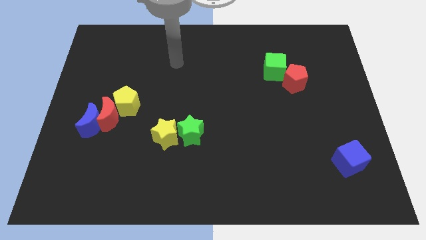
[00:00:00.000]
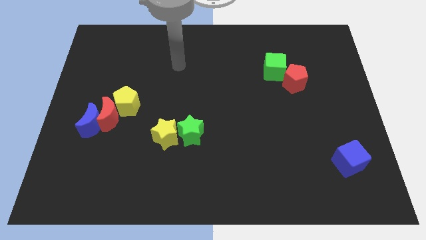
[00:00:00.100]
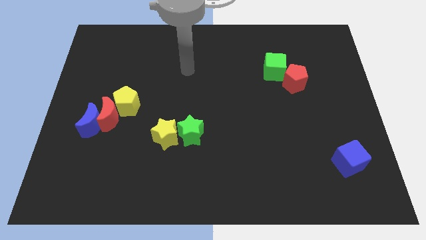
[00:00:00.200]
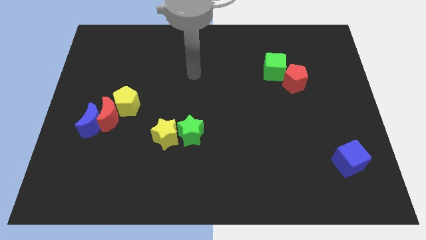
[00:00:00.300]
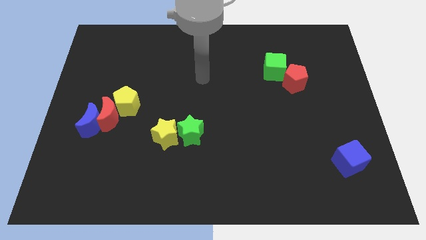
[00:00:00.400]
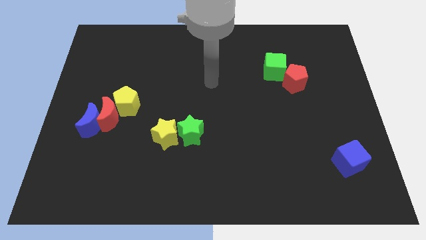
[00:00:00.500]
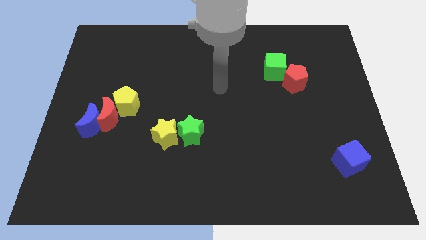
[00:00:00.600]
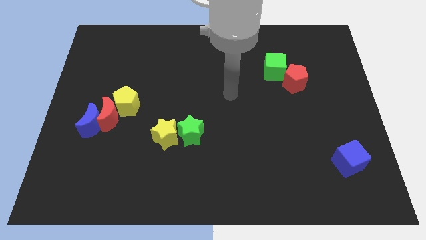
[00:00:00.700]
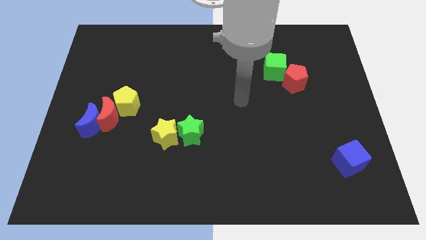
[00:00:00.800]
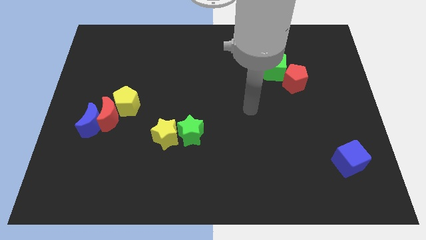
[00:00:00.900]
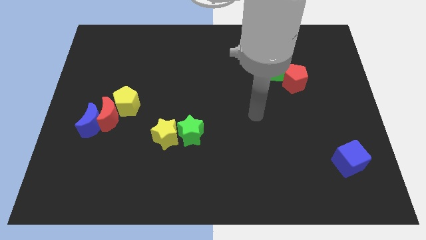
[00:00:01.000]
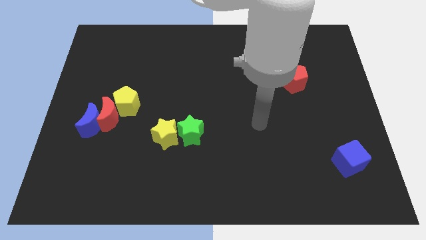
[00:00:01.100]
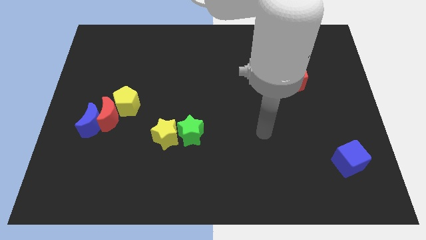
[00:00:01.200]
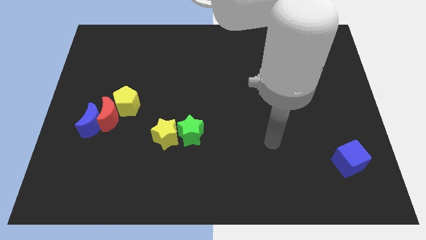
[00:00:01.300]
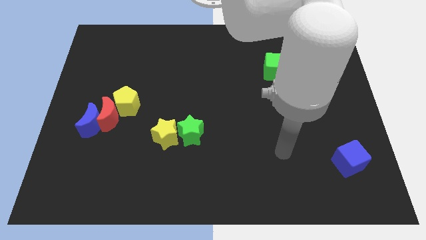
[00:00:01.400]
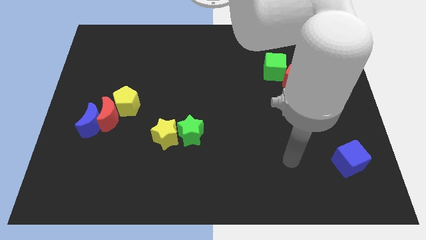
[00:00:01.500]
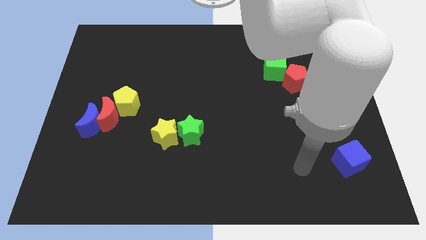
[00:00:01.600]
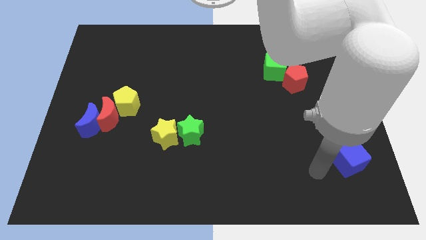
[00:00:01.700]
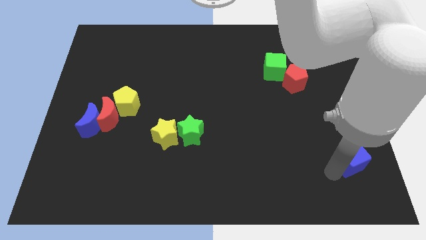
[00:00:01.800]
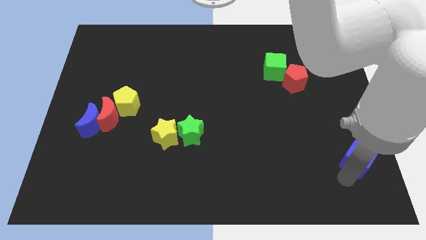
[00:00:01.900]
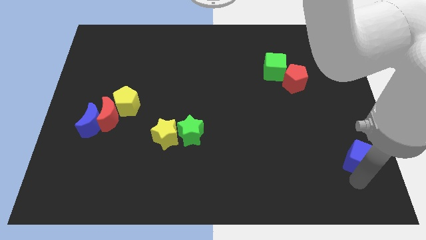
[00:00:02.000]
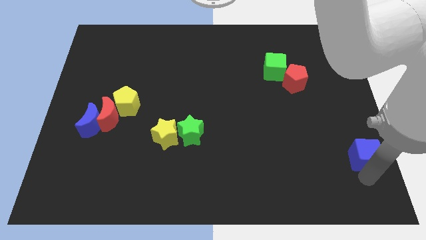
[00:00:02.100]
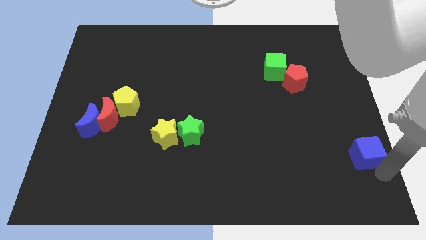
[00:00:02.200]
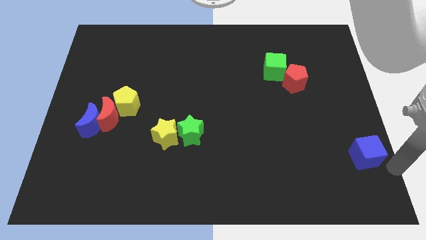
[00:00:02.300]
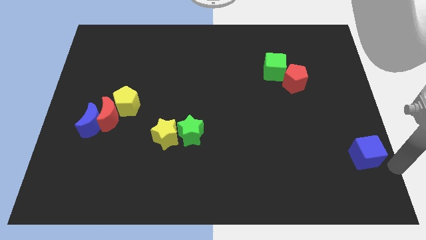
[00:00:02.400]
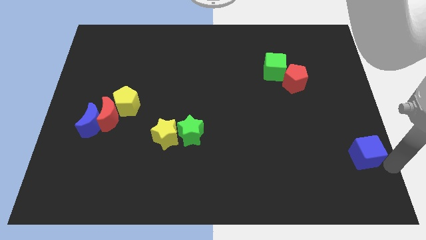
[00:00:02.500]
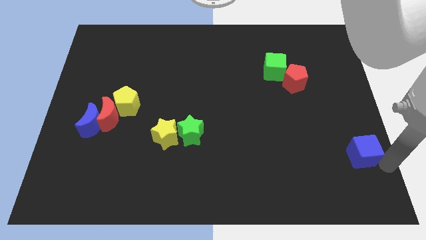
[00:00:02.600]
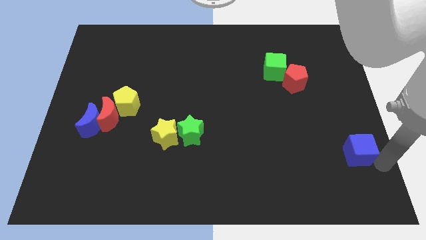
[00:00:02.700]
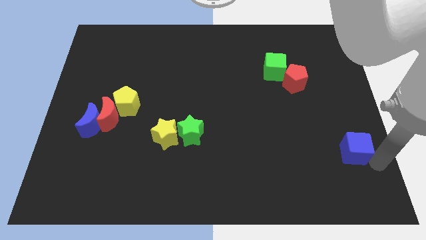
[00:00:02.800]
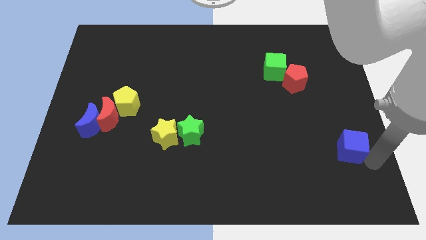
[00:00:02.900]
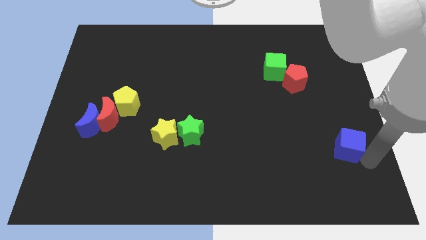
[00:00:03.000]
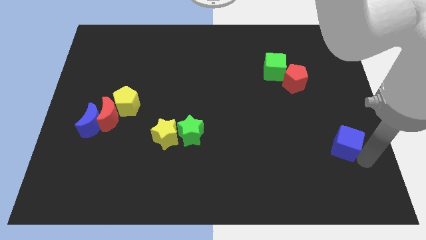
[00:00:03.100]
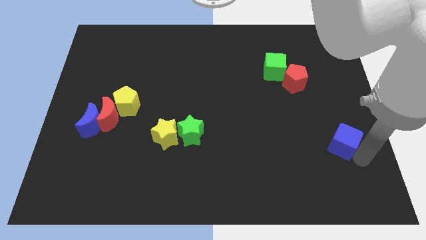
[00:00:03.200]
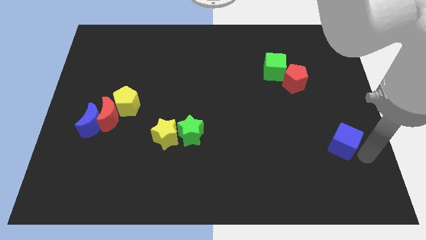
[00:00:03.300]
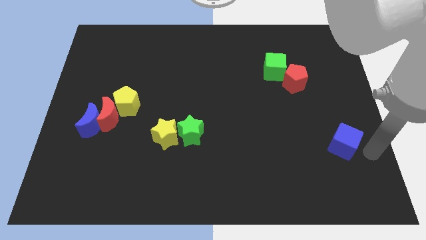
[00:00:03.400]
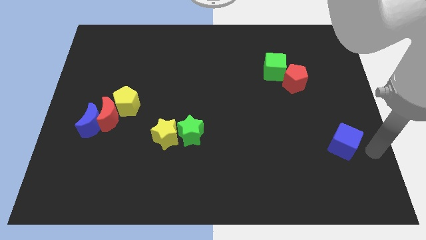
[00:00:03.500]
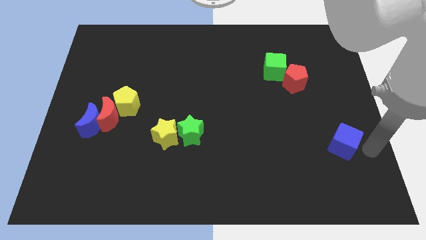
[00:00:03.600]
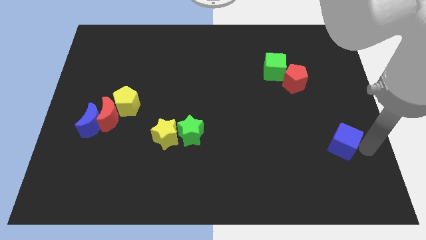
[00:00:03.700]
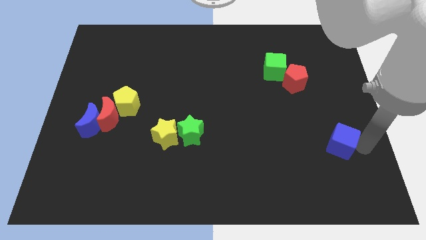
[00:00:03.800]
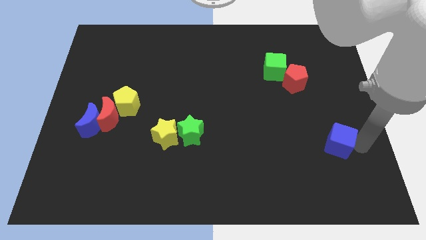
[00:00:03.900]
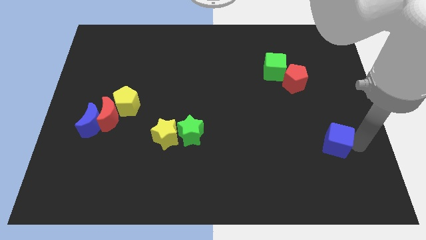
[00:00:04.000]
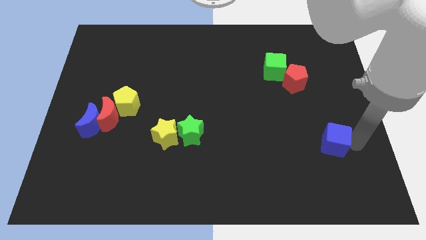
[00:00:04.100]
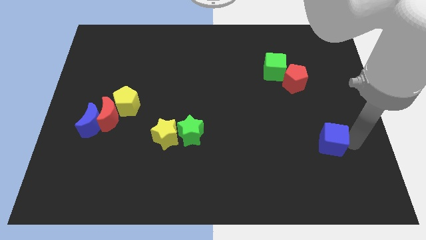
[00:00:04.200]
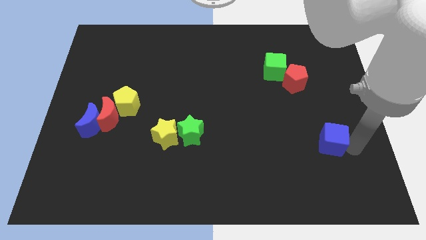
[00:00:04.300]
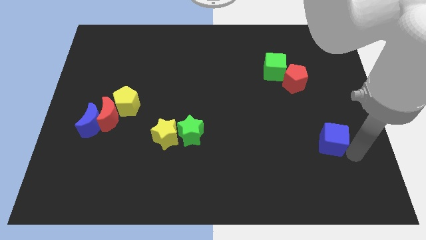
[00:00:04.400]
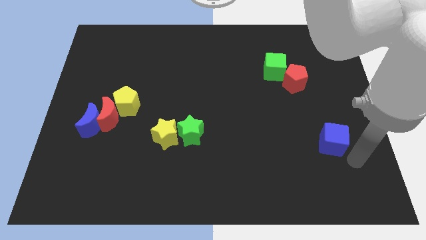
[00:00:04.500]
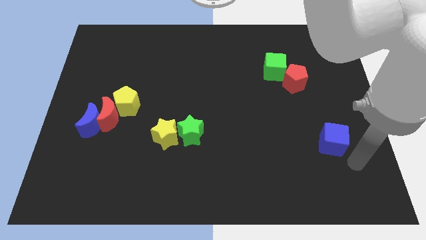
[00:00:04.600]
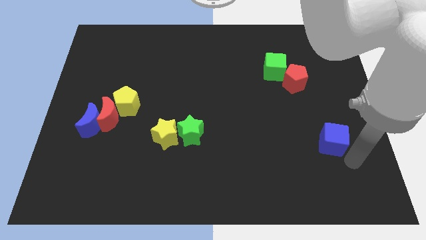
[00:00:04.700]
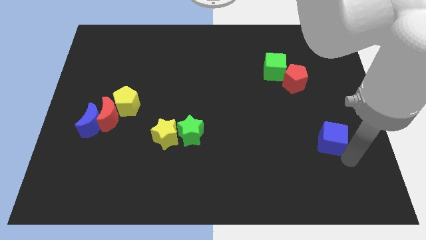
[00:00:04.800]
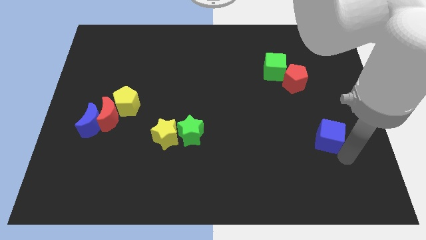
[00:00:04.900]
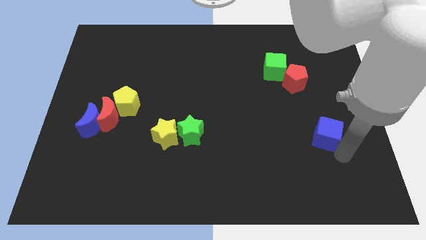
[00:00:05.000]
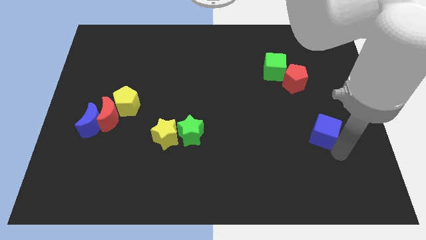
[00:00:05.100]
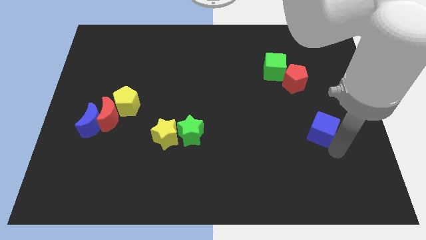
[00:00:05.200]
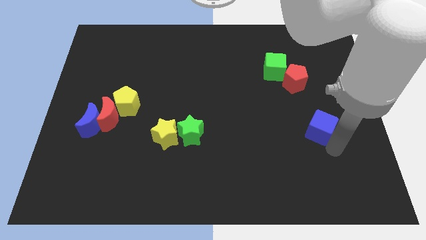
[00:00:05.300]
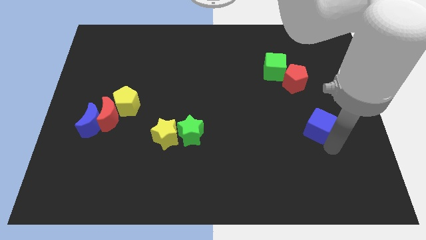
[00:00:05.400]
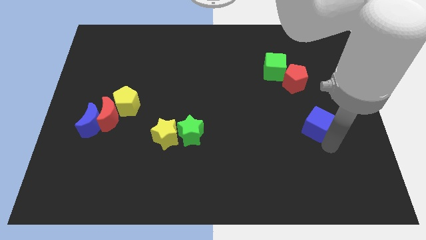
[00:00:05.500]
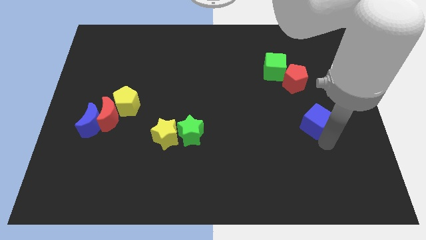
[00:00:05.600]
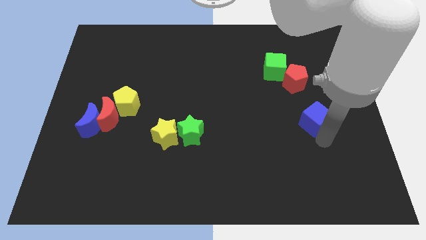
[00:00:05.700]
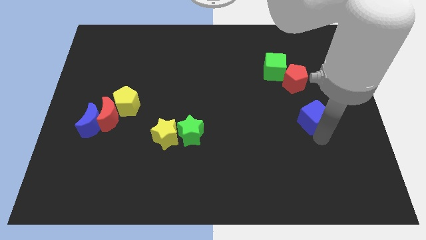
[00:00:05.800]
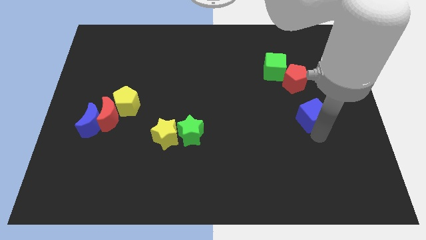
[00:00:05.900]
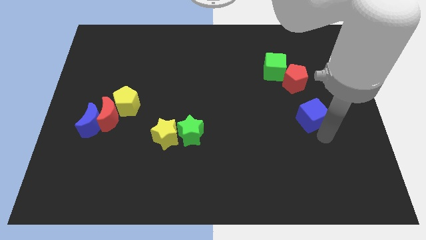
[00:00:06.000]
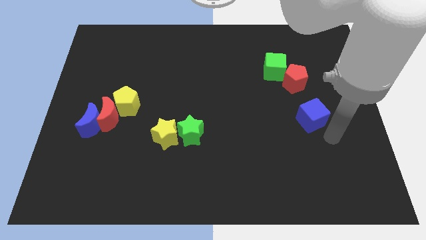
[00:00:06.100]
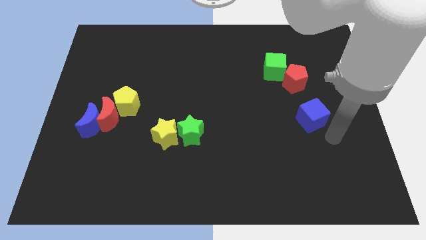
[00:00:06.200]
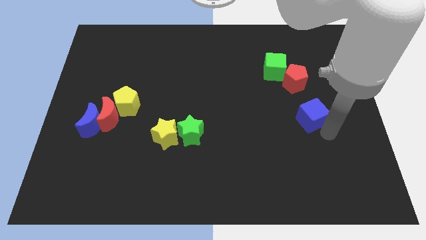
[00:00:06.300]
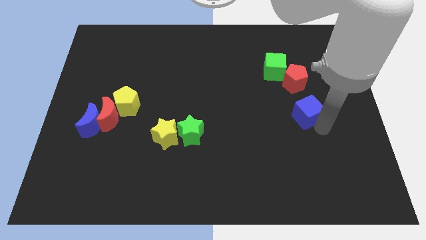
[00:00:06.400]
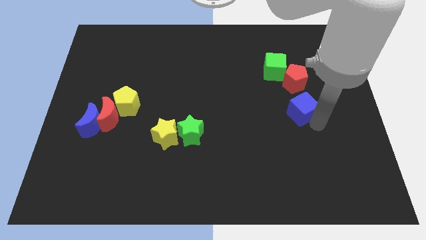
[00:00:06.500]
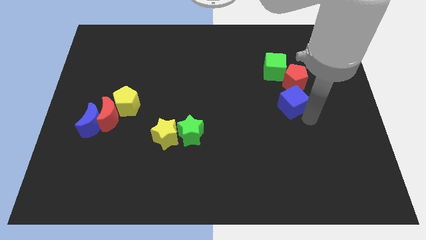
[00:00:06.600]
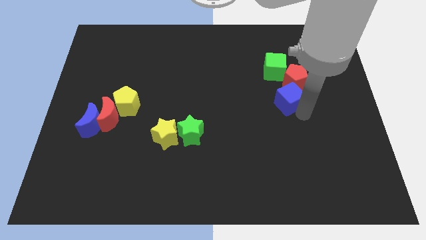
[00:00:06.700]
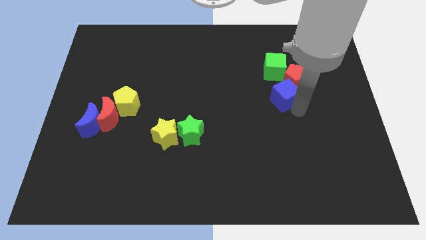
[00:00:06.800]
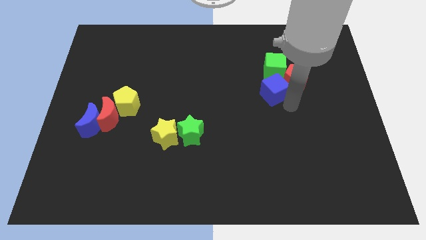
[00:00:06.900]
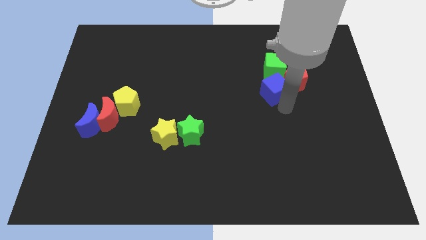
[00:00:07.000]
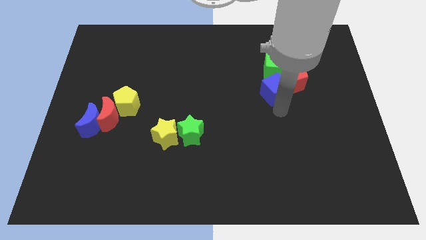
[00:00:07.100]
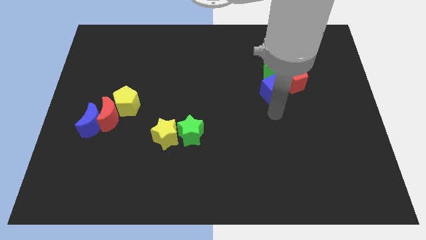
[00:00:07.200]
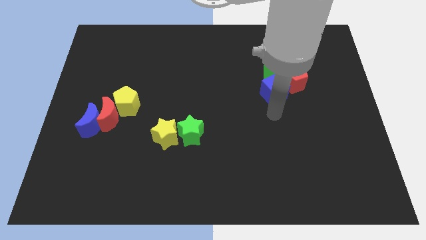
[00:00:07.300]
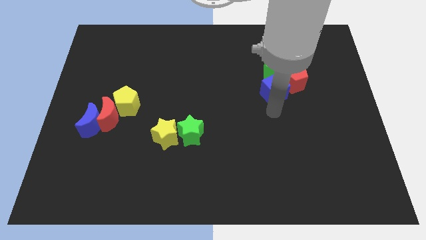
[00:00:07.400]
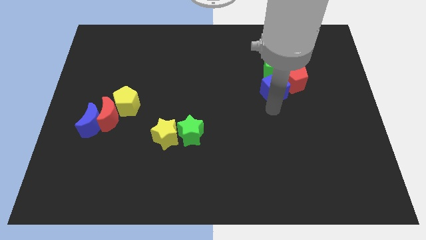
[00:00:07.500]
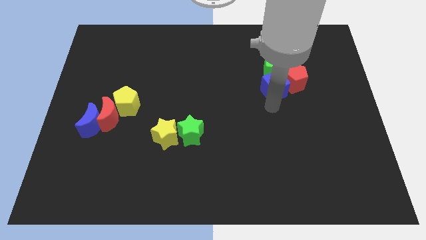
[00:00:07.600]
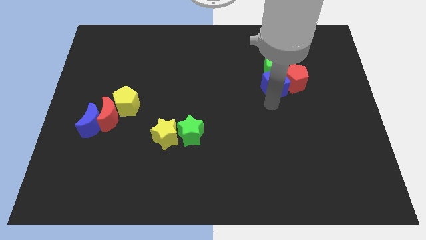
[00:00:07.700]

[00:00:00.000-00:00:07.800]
put the blue cube close to the green cube

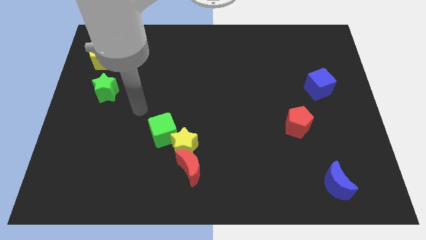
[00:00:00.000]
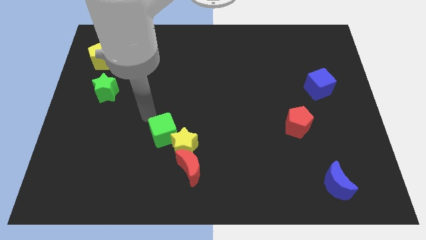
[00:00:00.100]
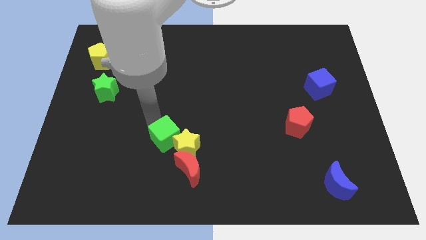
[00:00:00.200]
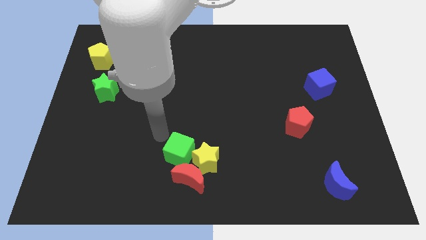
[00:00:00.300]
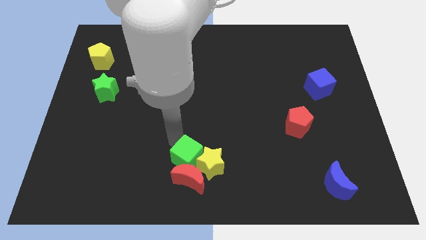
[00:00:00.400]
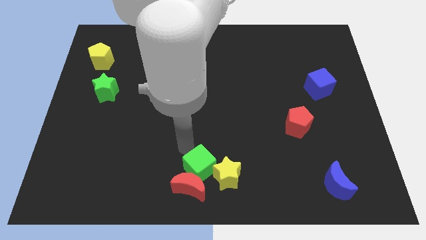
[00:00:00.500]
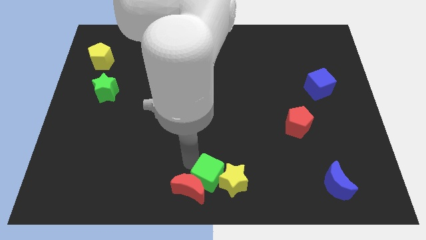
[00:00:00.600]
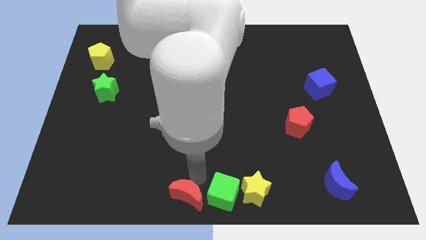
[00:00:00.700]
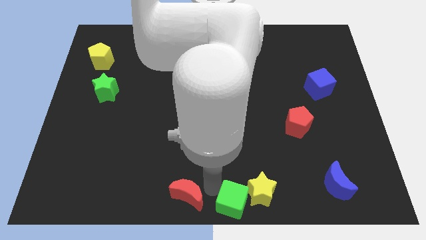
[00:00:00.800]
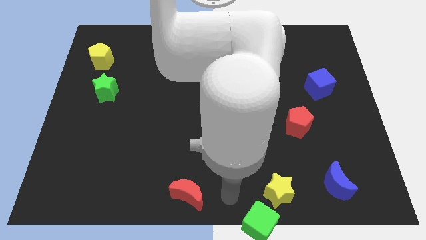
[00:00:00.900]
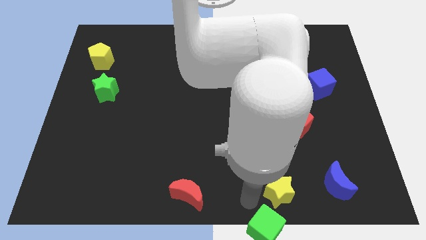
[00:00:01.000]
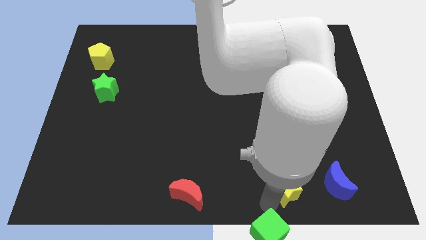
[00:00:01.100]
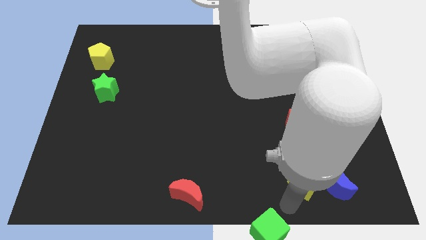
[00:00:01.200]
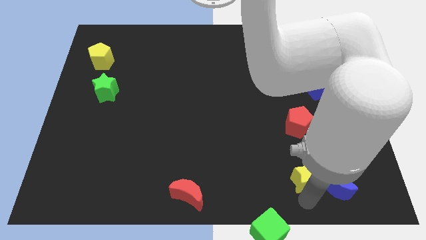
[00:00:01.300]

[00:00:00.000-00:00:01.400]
slide the yellow star to the blue moon
